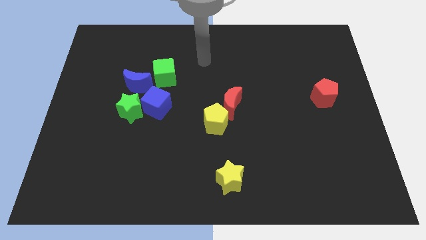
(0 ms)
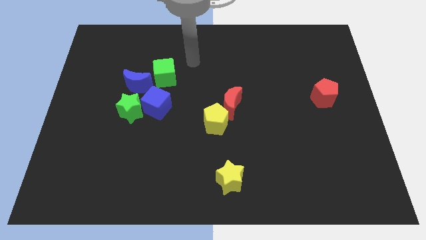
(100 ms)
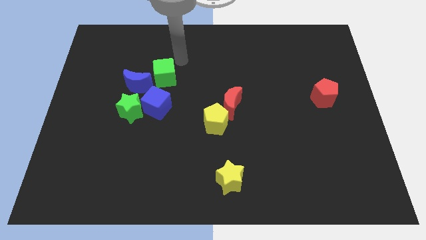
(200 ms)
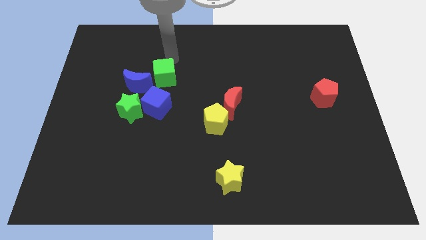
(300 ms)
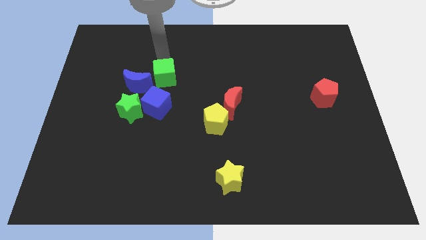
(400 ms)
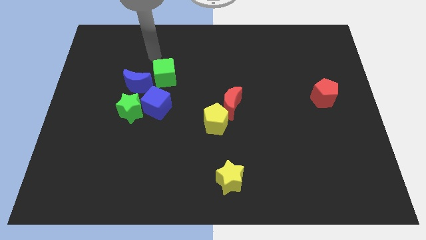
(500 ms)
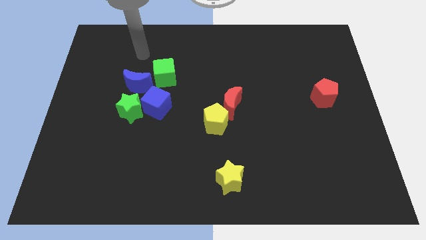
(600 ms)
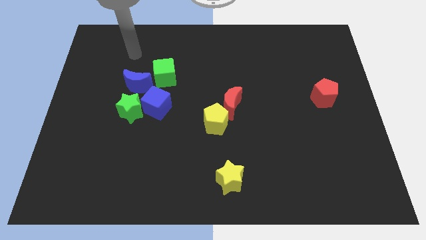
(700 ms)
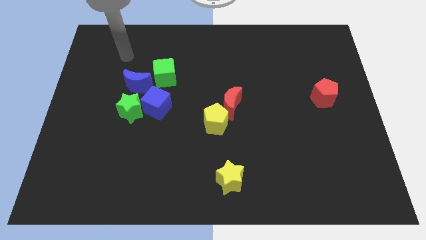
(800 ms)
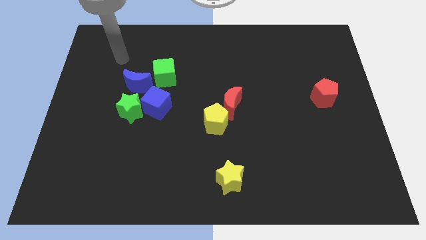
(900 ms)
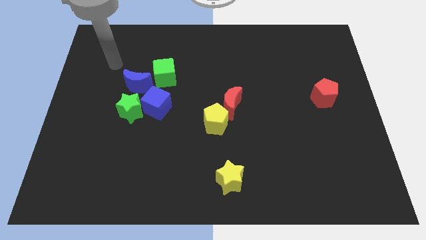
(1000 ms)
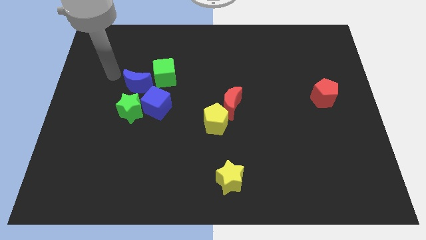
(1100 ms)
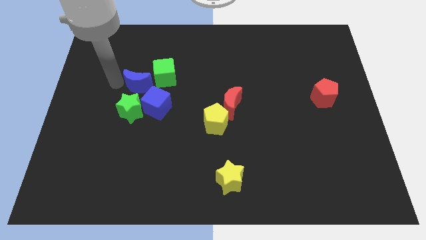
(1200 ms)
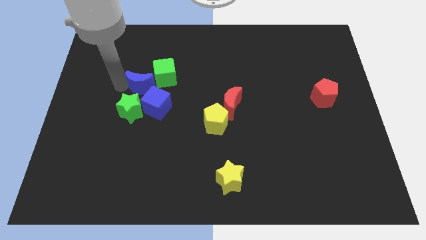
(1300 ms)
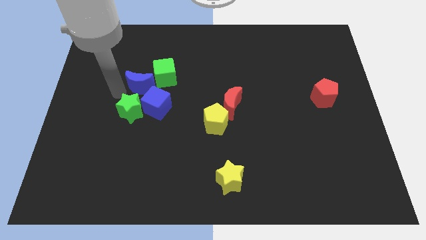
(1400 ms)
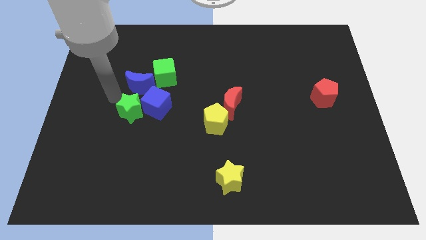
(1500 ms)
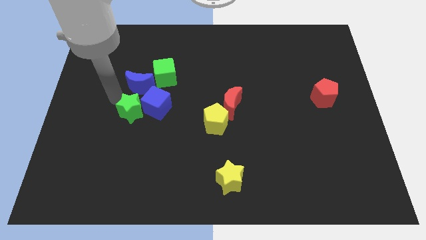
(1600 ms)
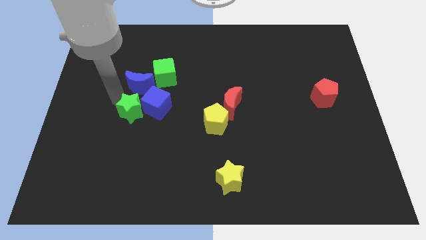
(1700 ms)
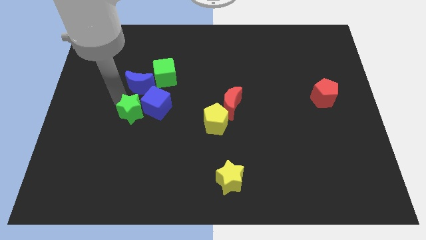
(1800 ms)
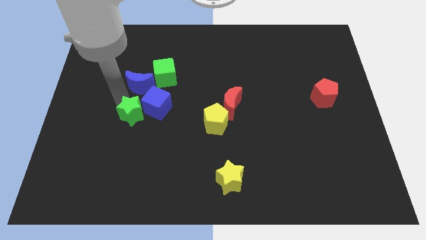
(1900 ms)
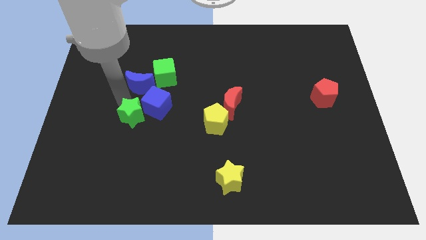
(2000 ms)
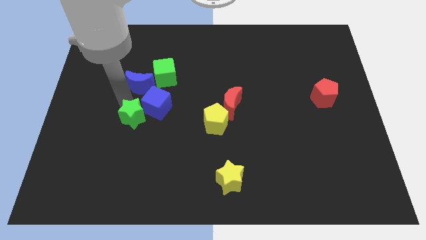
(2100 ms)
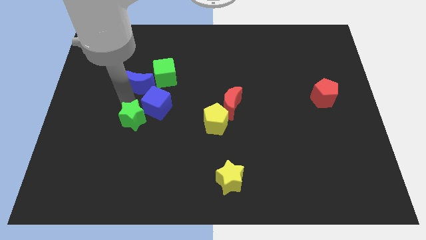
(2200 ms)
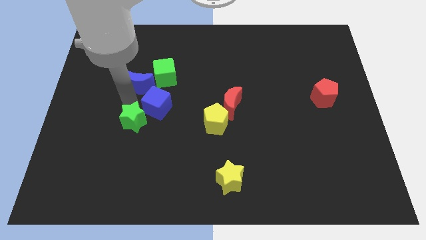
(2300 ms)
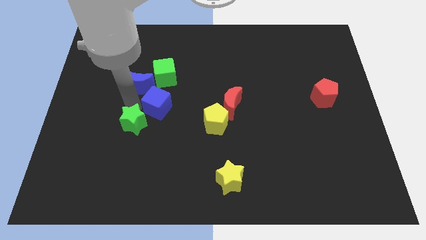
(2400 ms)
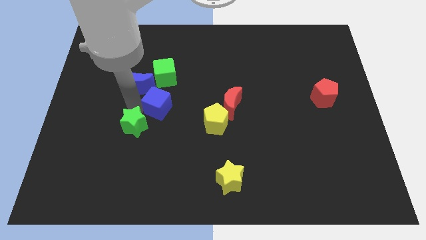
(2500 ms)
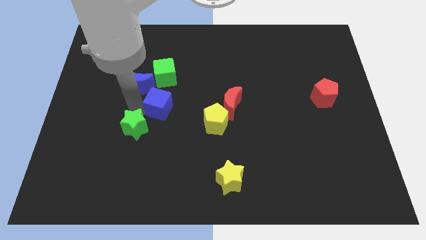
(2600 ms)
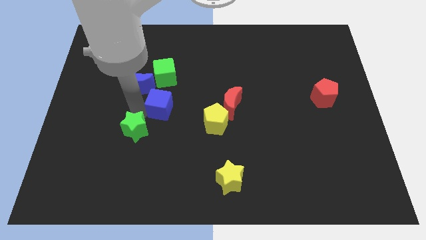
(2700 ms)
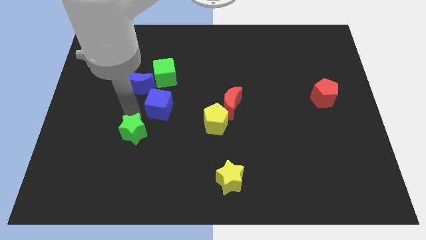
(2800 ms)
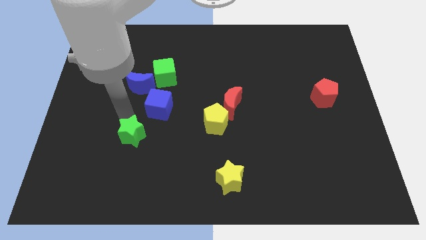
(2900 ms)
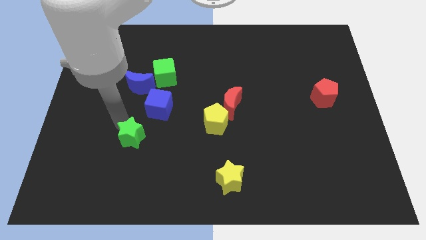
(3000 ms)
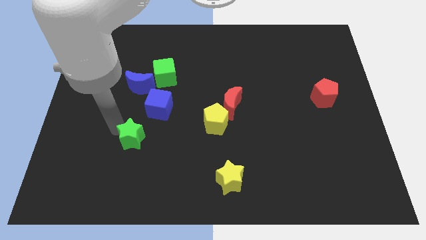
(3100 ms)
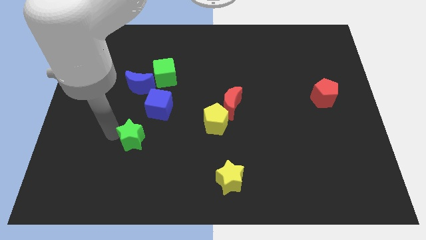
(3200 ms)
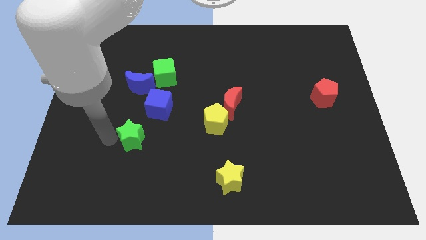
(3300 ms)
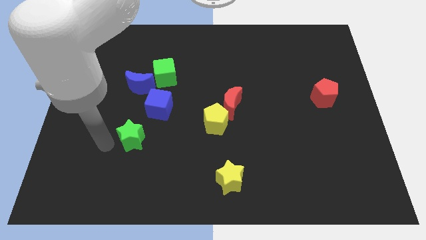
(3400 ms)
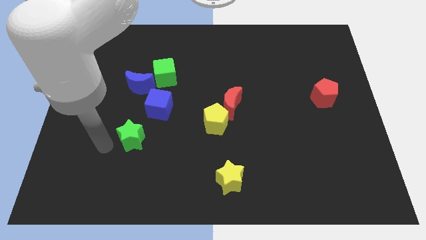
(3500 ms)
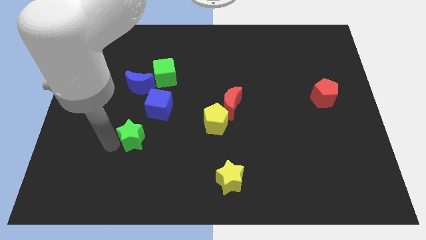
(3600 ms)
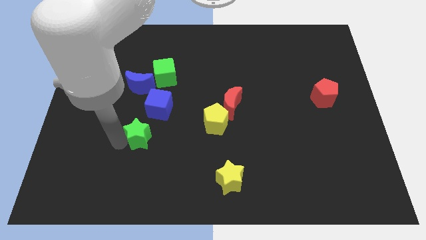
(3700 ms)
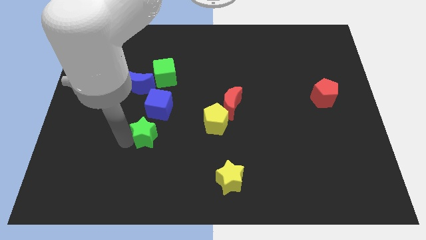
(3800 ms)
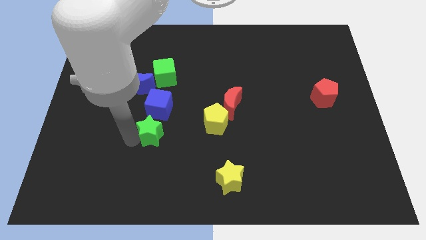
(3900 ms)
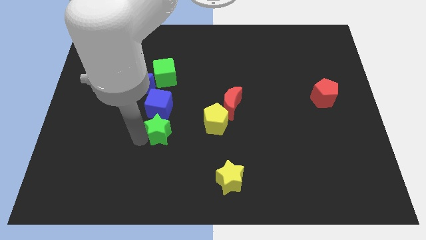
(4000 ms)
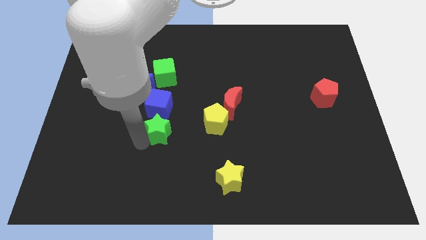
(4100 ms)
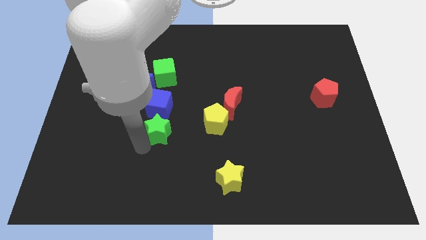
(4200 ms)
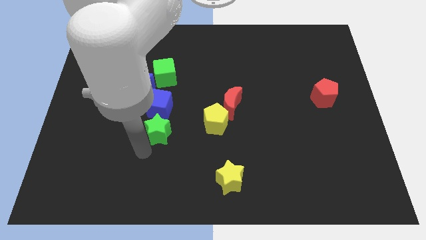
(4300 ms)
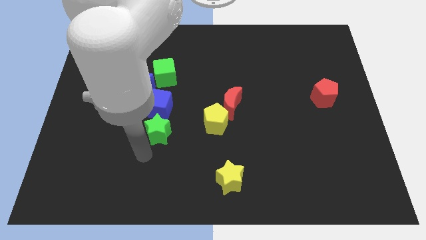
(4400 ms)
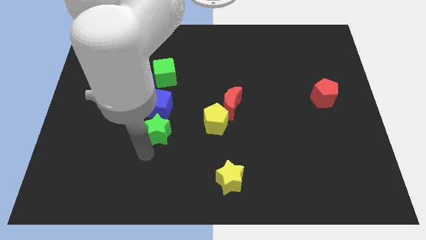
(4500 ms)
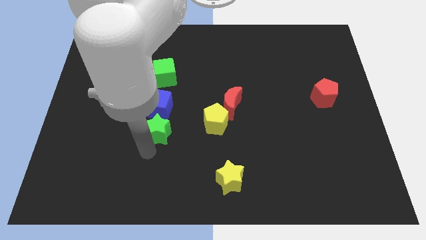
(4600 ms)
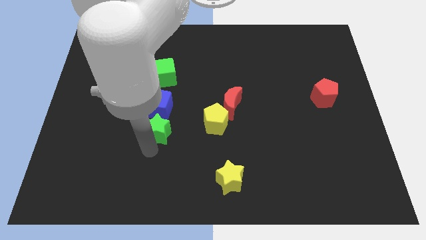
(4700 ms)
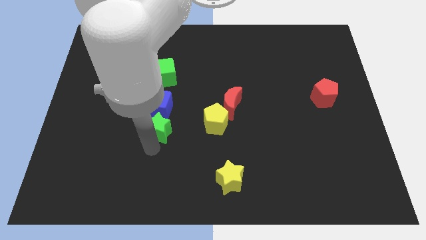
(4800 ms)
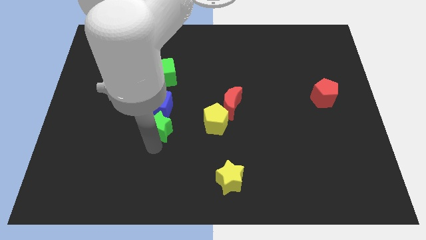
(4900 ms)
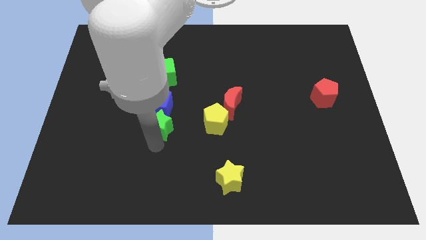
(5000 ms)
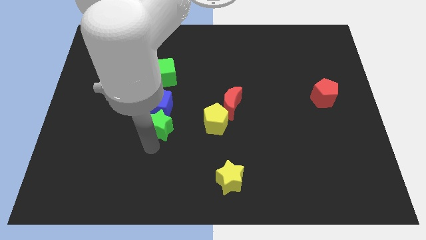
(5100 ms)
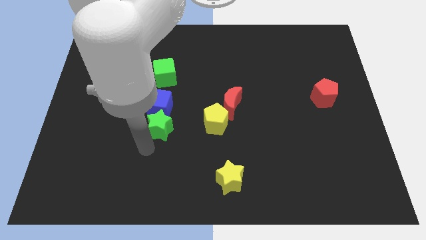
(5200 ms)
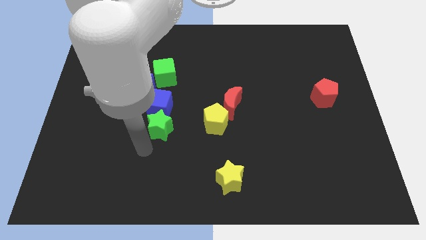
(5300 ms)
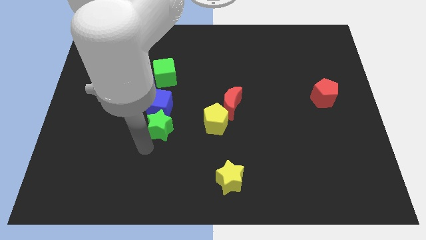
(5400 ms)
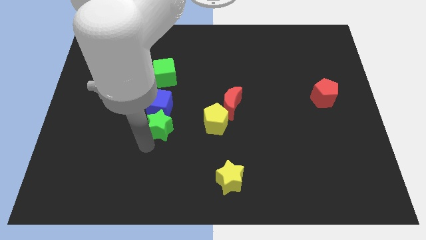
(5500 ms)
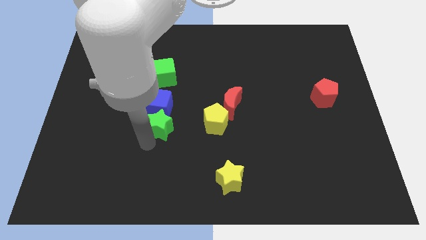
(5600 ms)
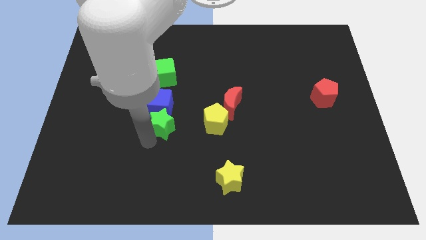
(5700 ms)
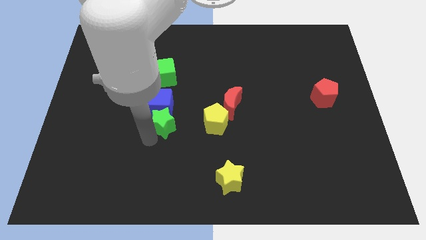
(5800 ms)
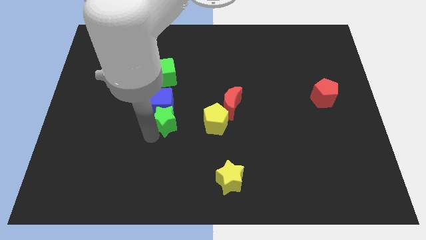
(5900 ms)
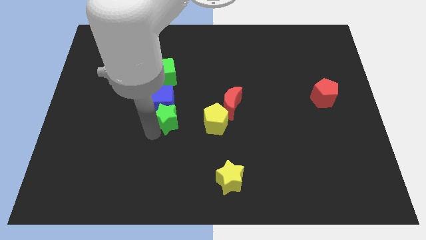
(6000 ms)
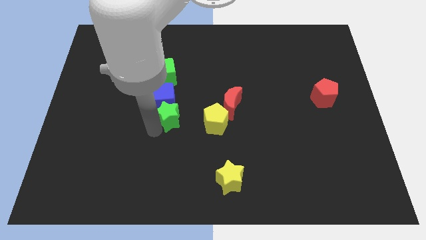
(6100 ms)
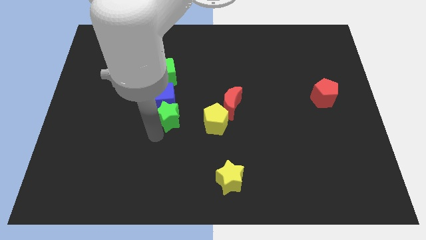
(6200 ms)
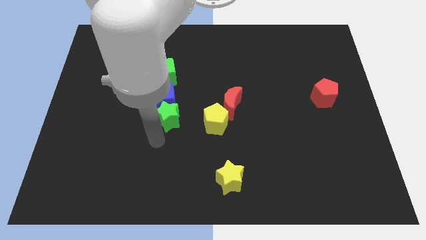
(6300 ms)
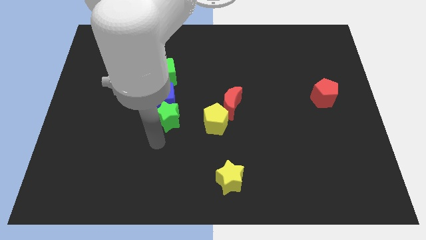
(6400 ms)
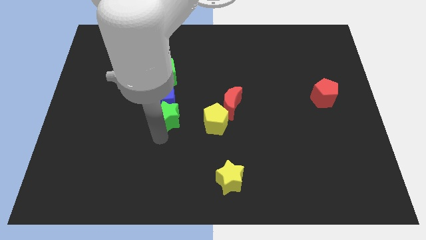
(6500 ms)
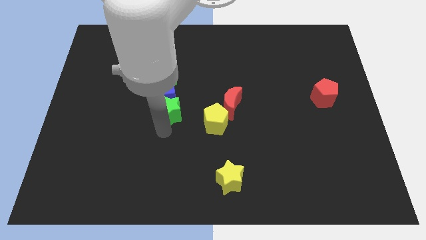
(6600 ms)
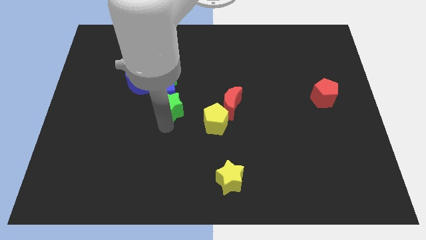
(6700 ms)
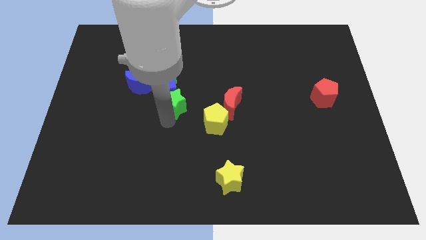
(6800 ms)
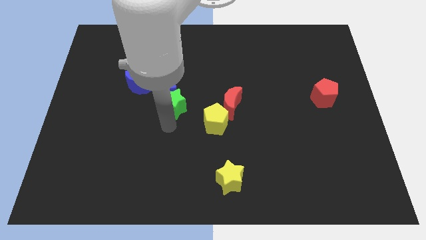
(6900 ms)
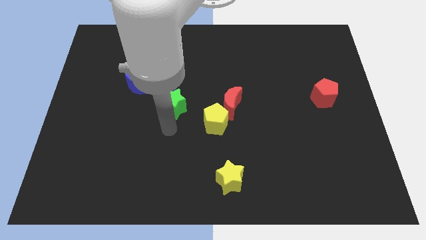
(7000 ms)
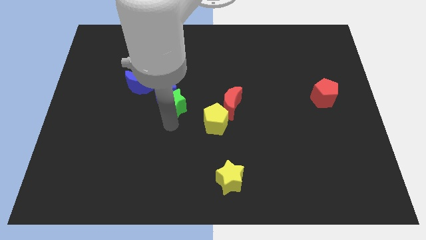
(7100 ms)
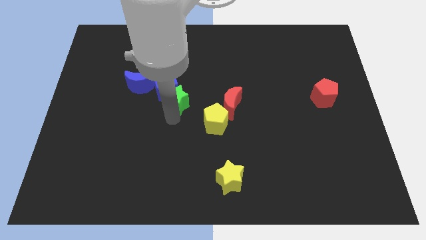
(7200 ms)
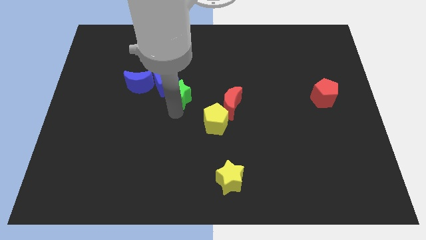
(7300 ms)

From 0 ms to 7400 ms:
slide the green star just right of the blue moon

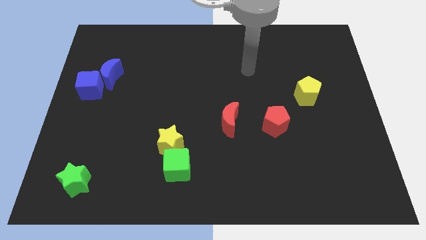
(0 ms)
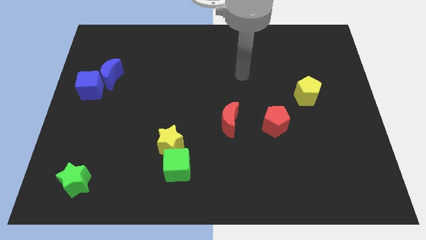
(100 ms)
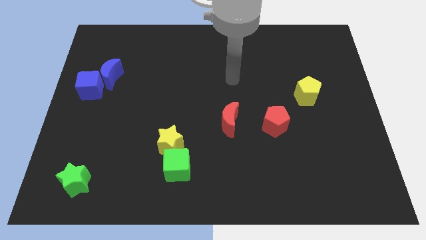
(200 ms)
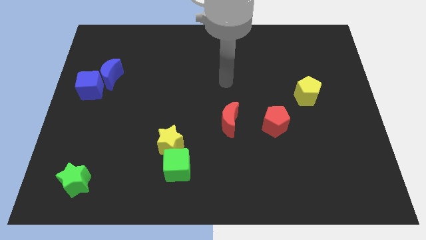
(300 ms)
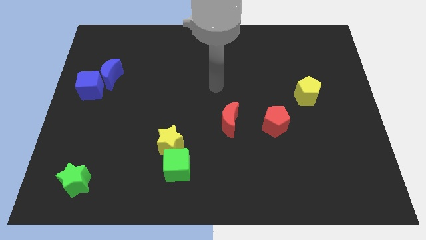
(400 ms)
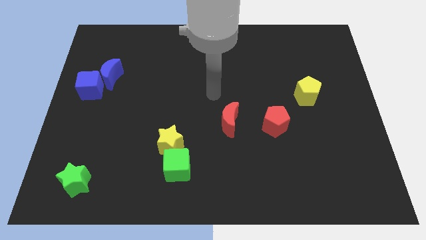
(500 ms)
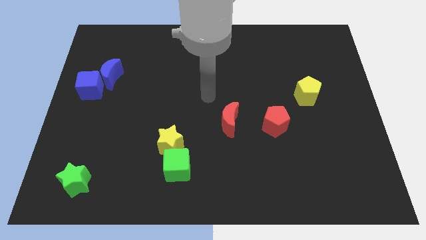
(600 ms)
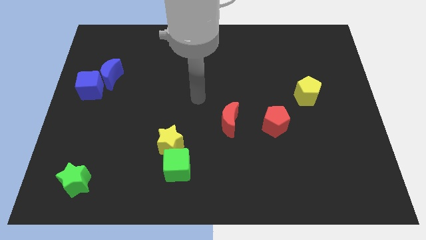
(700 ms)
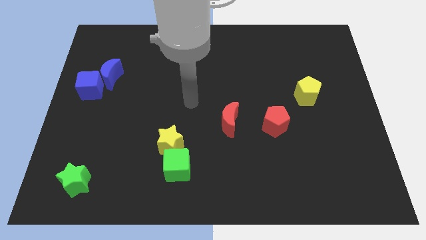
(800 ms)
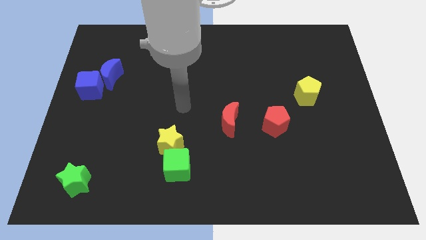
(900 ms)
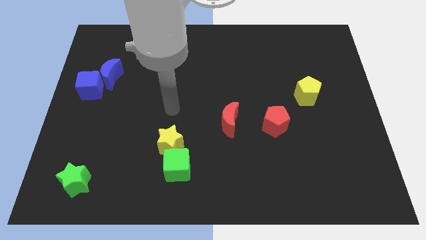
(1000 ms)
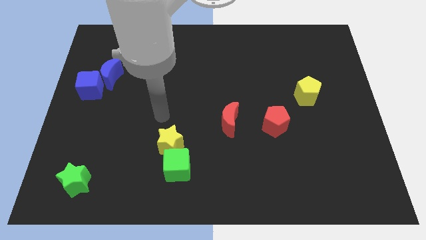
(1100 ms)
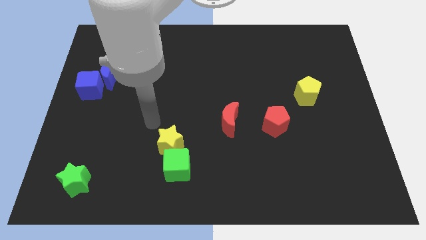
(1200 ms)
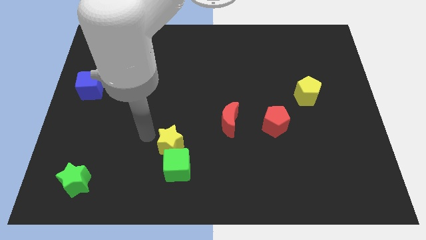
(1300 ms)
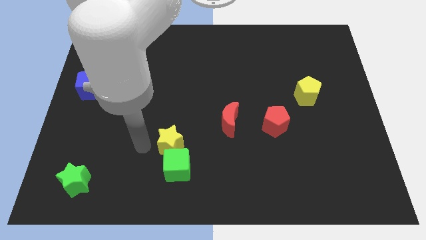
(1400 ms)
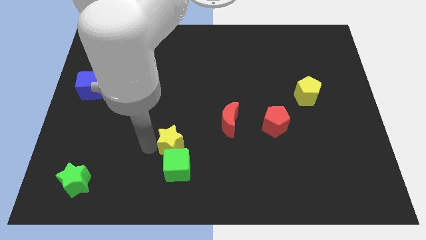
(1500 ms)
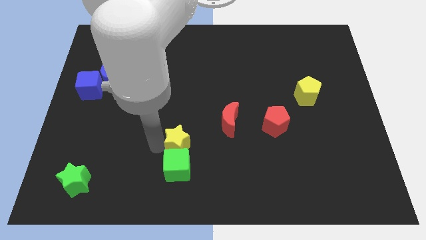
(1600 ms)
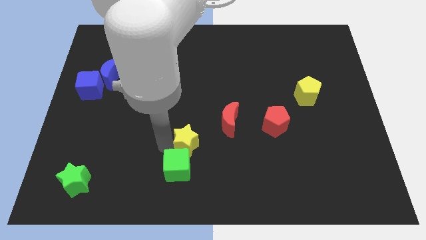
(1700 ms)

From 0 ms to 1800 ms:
slide the yellow star diagonally down and to the left of the red moon
